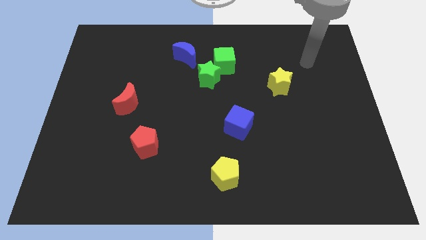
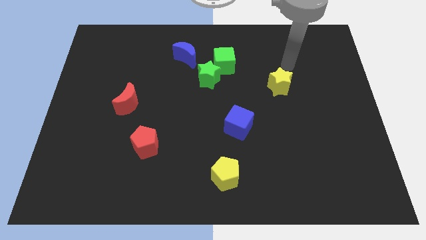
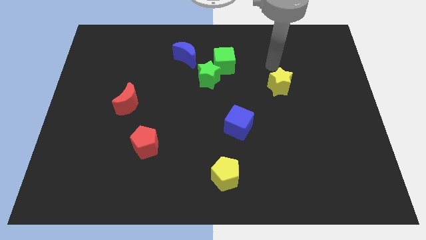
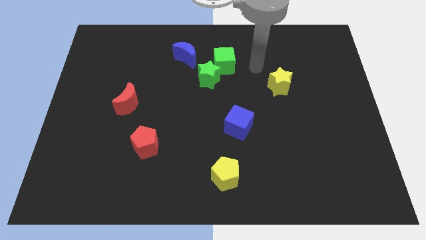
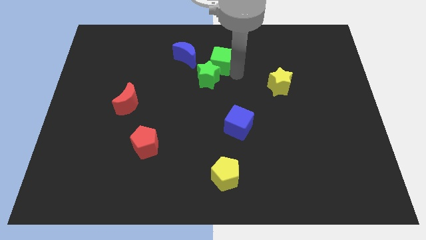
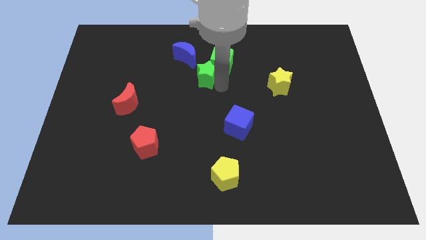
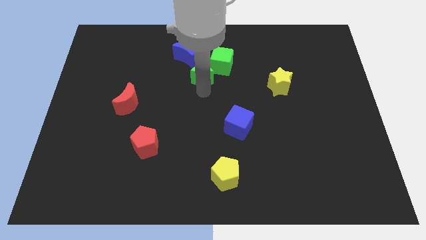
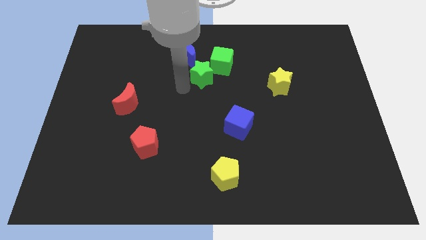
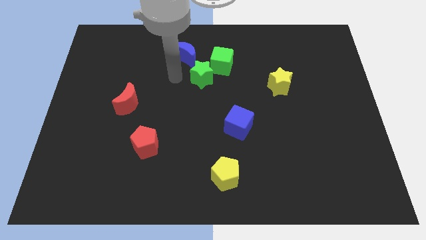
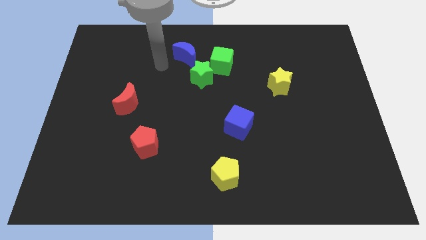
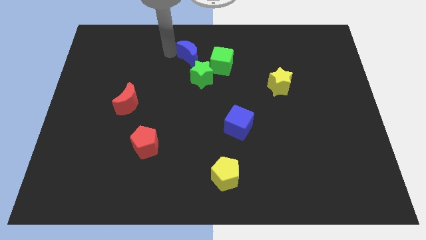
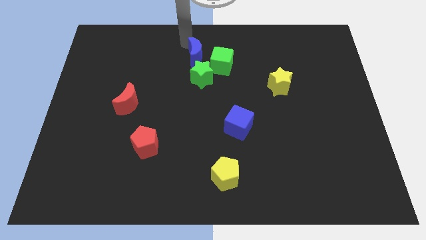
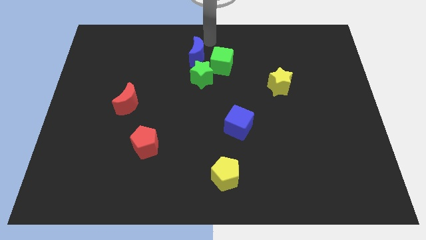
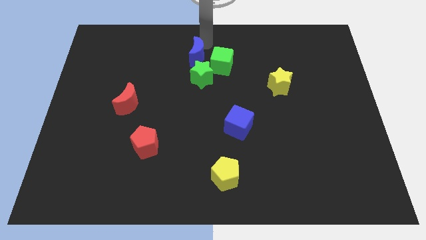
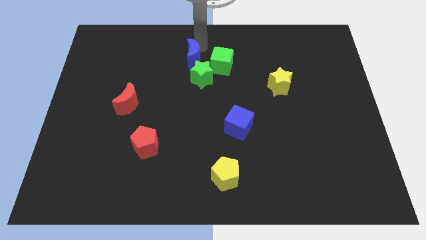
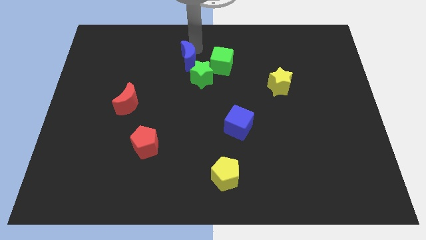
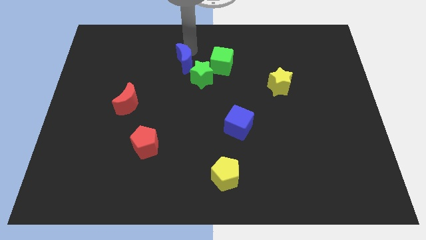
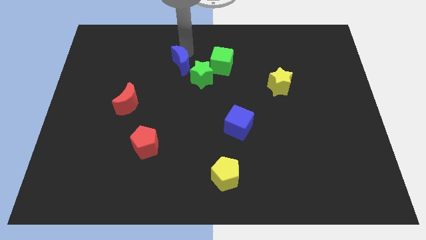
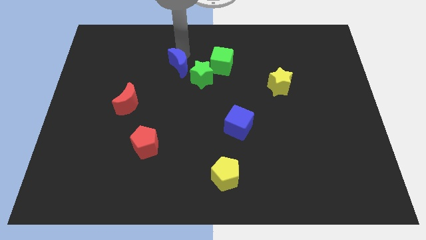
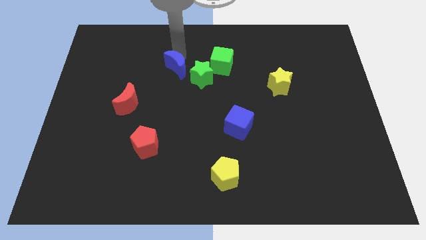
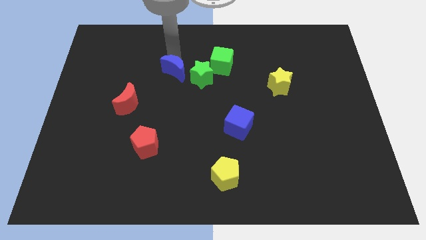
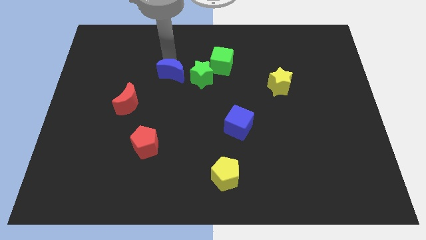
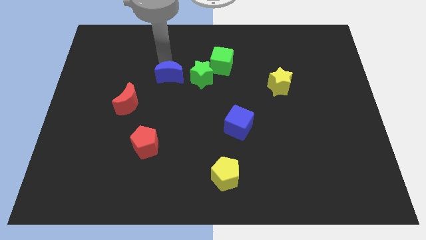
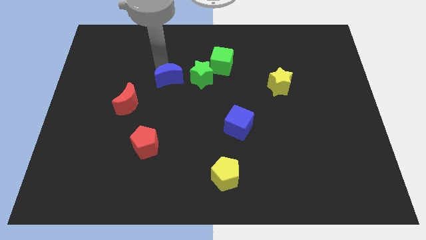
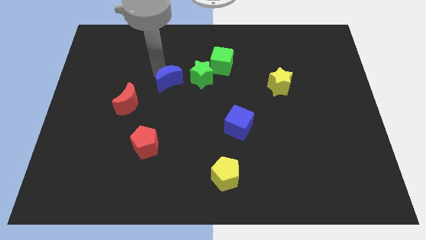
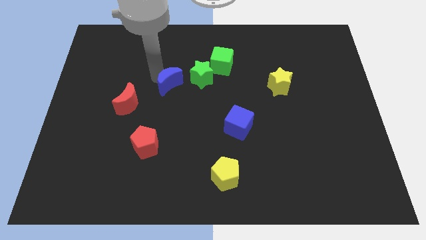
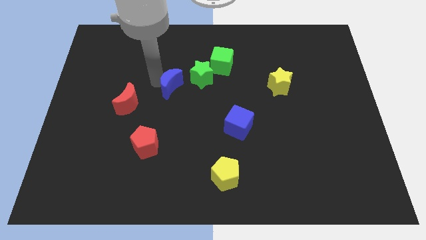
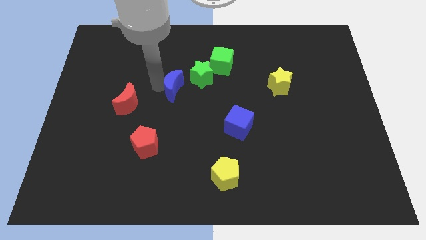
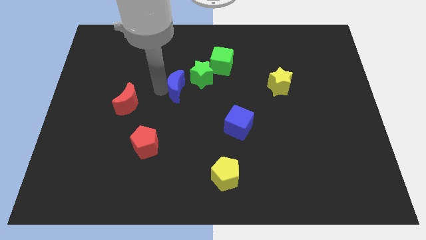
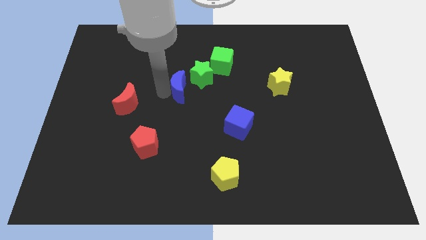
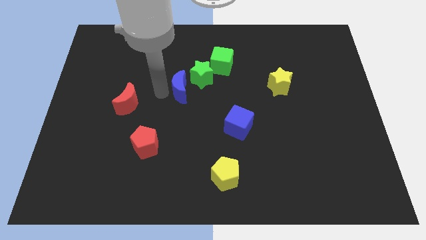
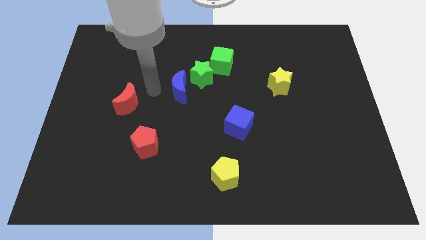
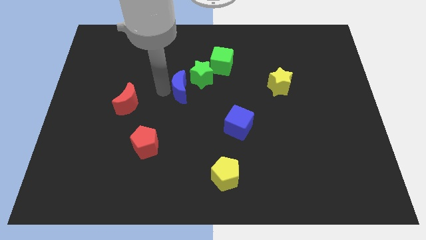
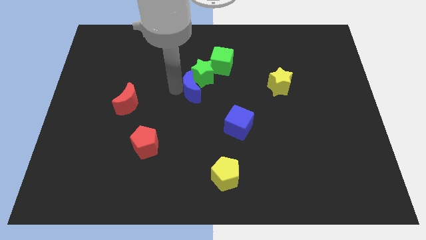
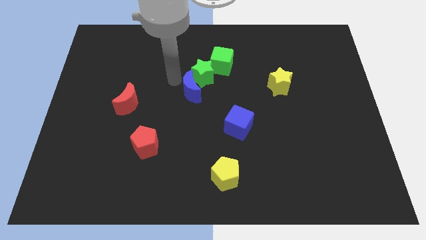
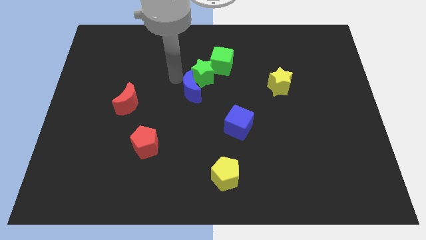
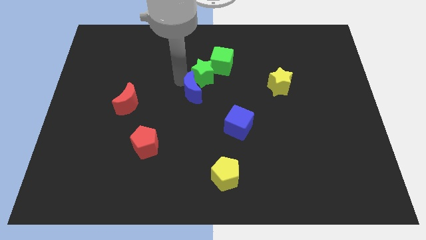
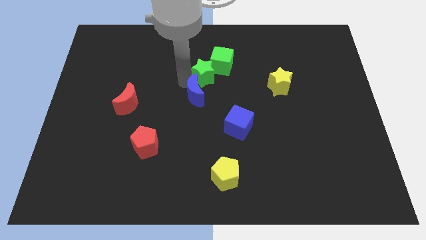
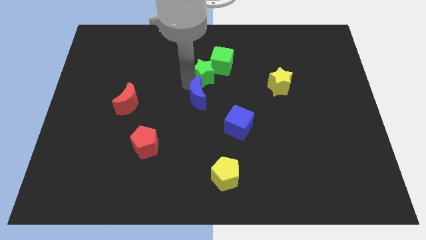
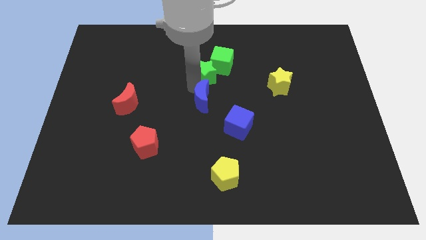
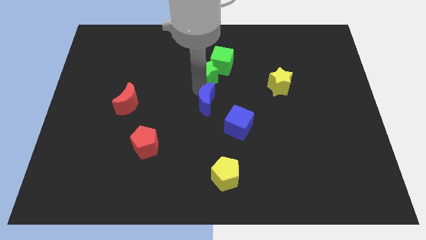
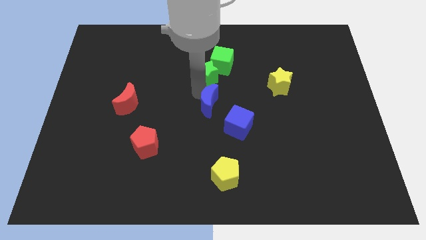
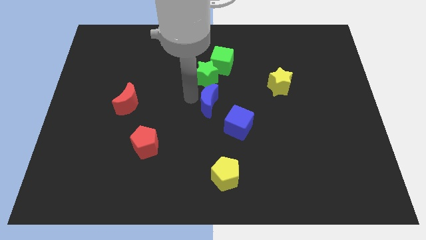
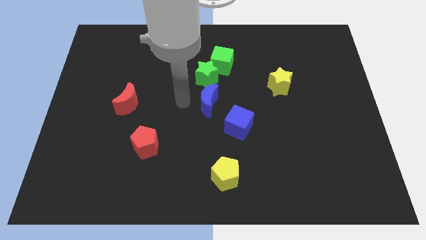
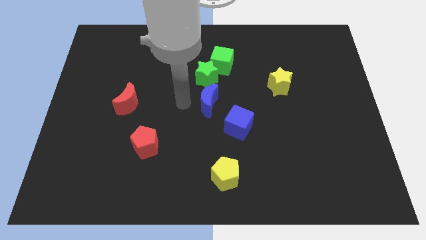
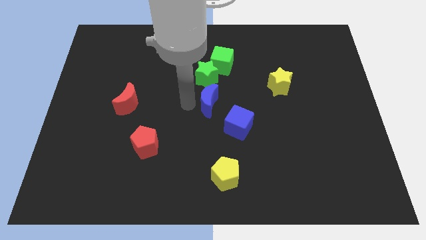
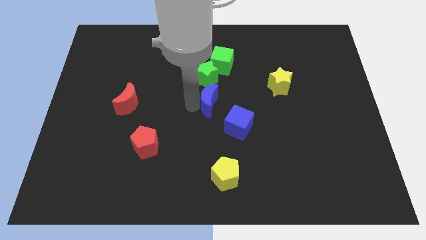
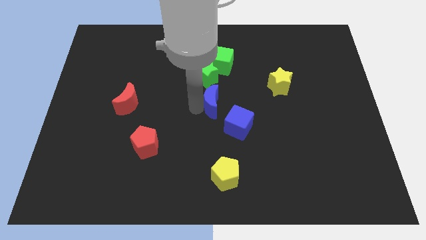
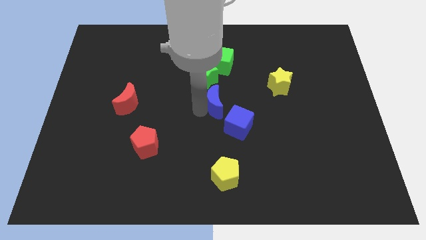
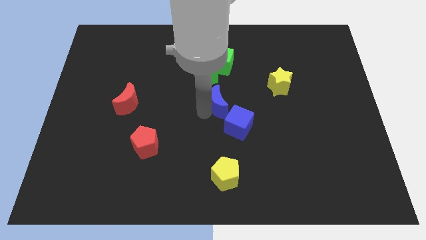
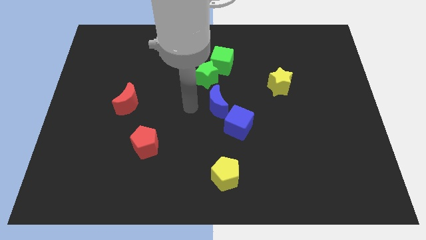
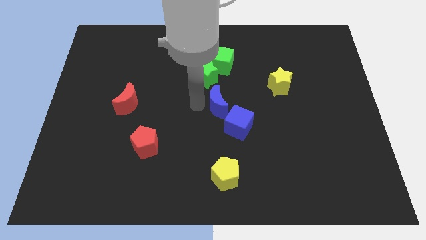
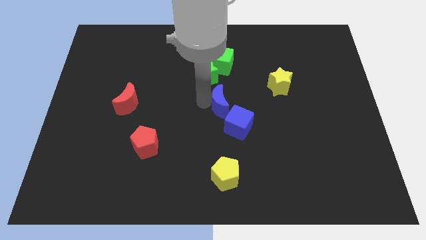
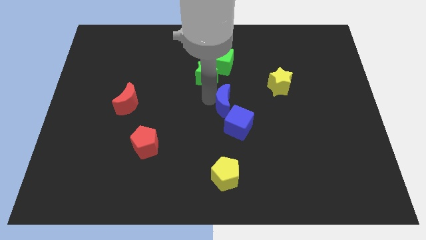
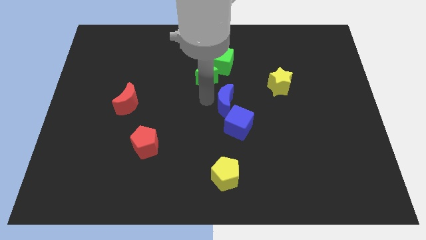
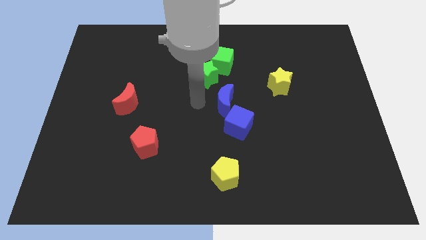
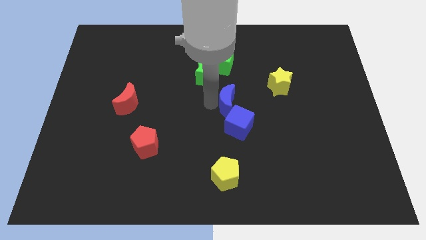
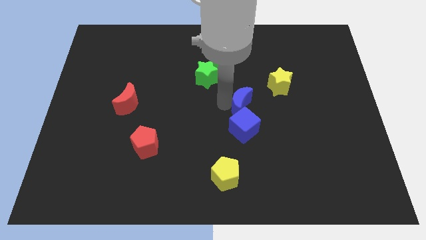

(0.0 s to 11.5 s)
push the blue moon down and to the right diagonally

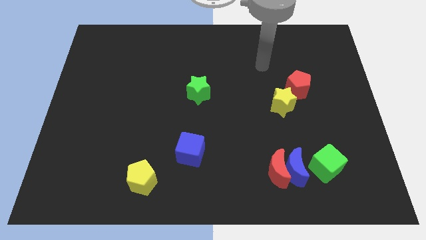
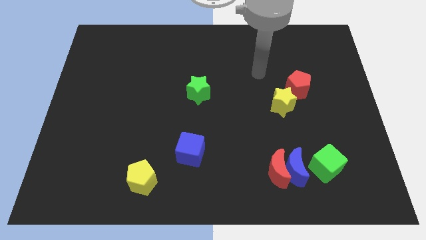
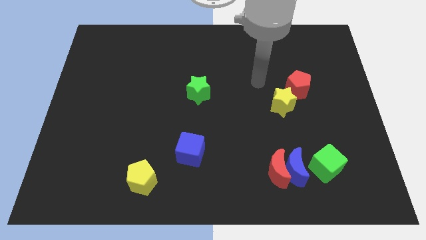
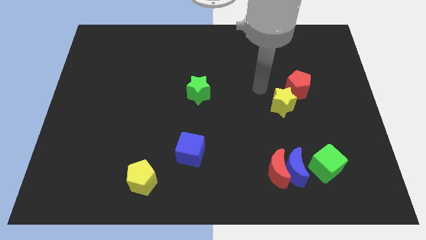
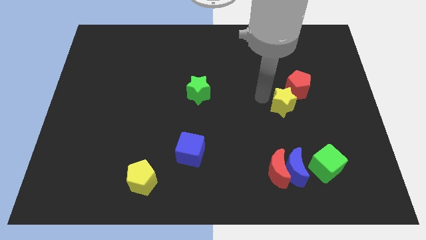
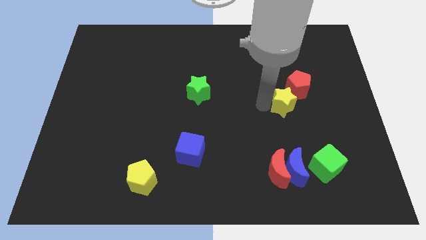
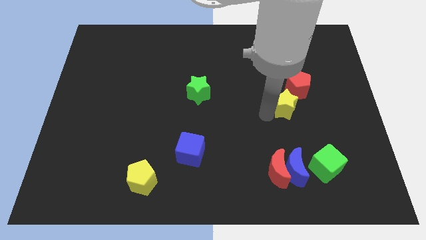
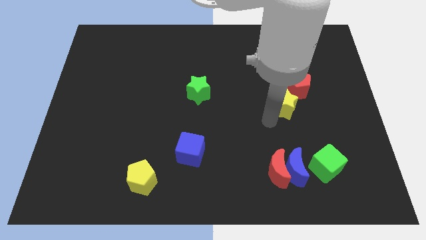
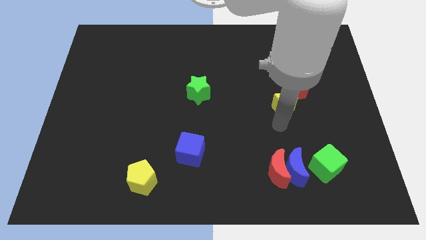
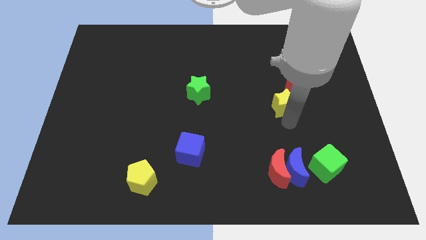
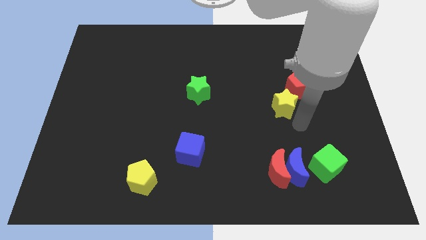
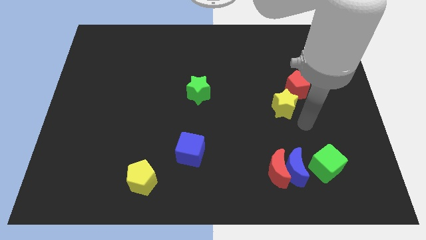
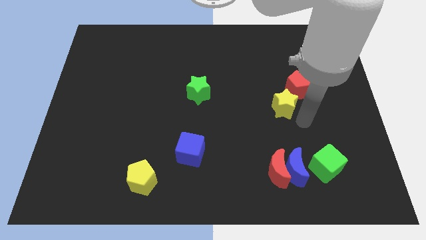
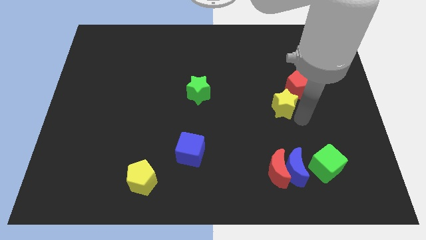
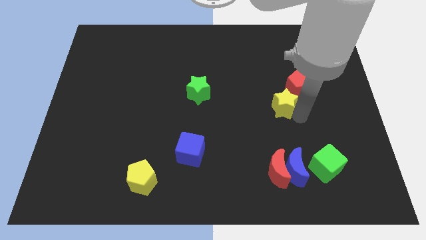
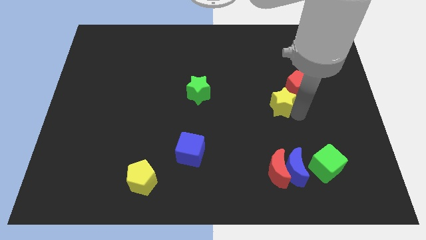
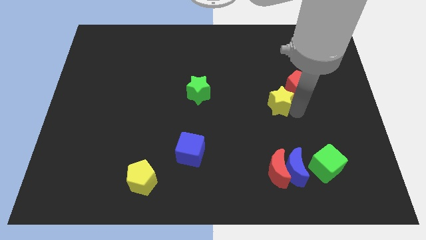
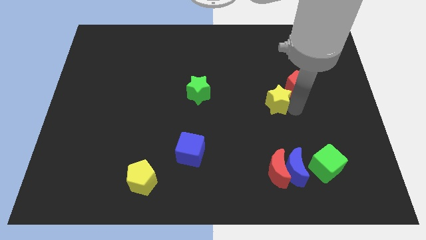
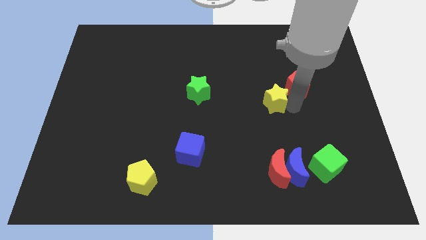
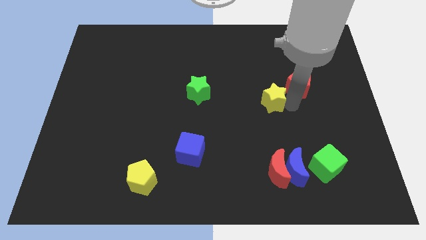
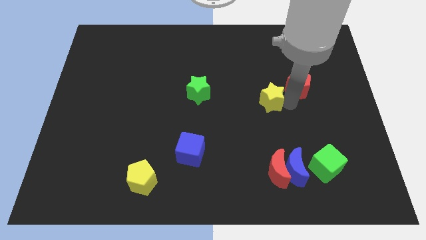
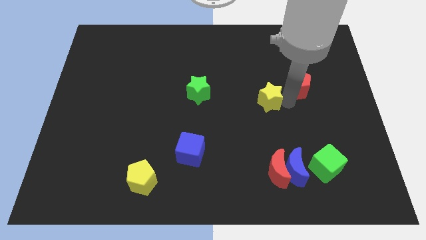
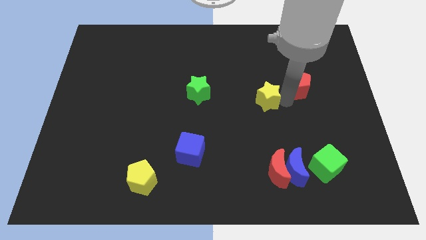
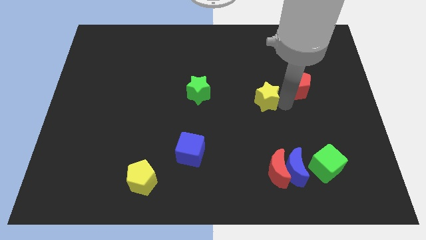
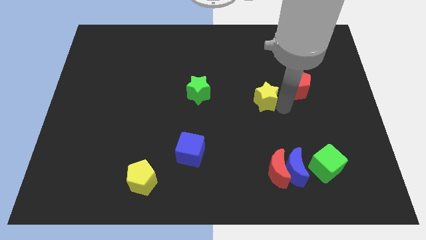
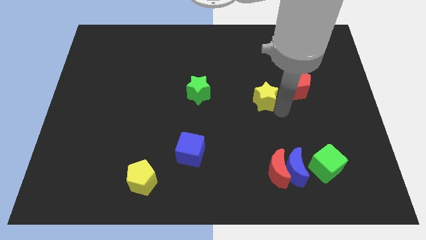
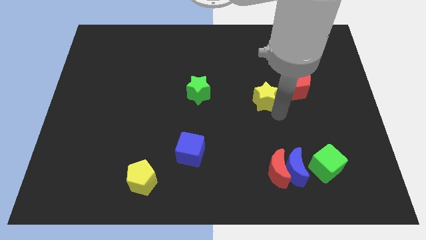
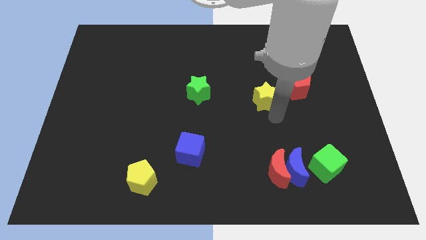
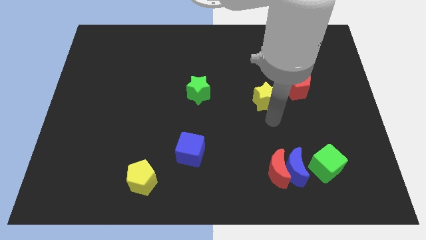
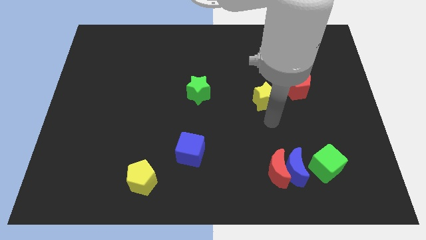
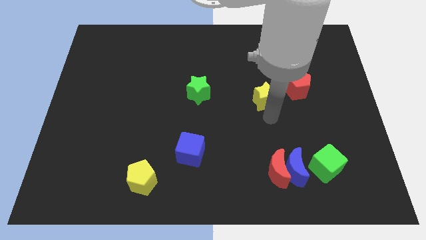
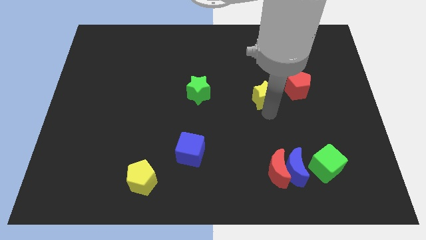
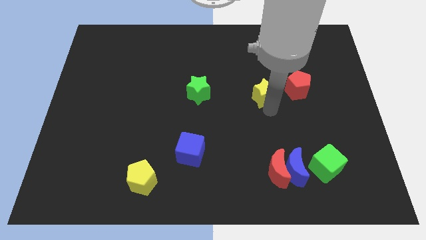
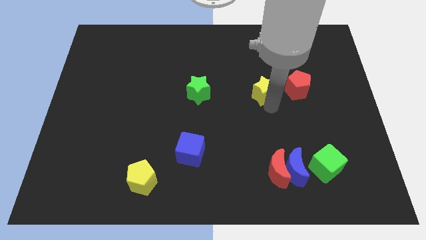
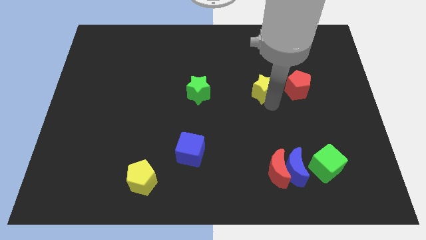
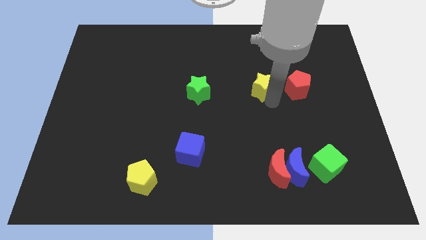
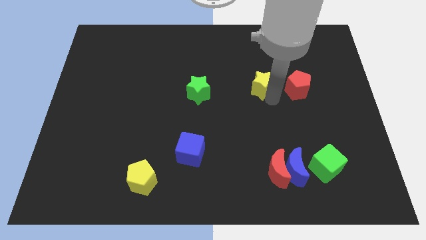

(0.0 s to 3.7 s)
slide the yellow star up and then left slightly
